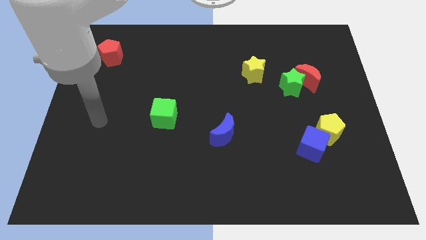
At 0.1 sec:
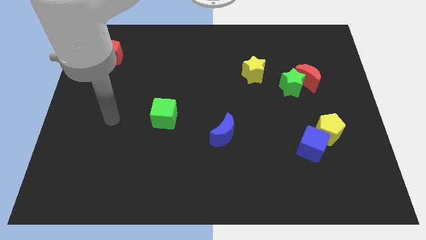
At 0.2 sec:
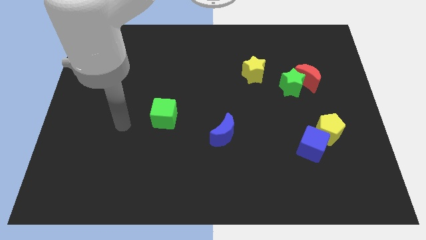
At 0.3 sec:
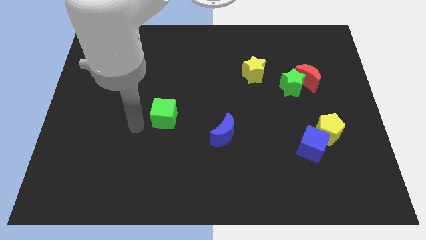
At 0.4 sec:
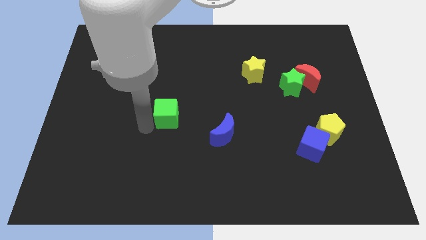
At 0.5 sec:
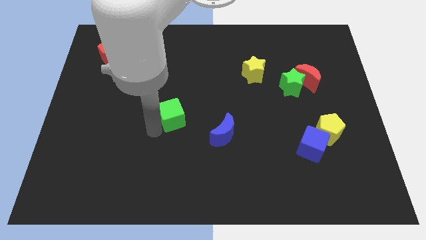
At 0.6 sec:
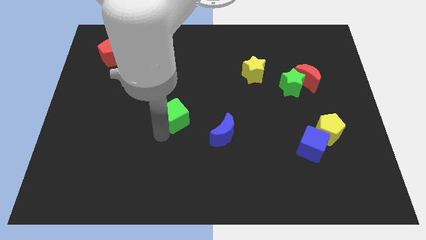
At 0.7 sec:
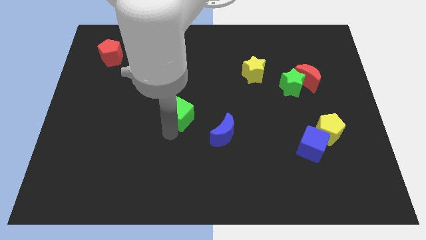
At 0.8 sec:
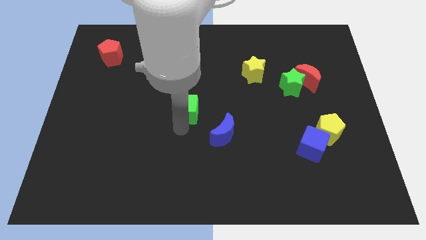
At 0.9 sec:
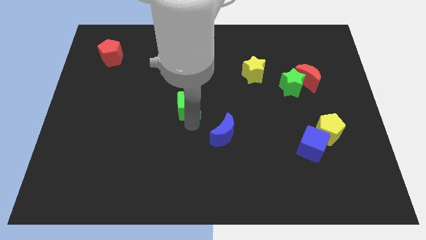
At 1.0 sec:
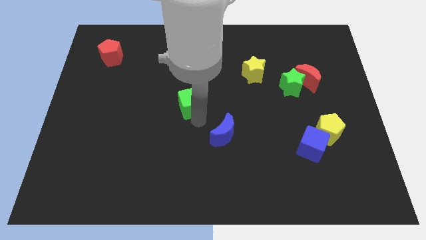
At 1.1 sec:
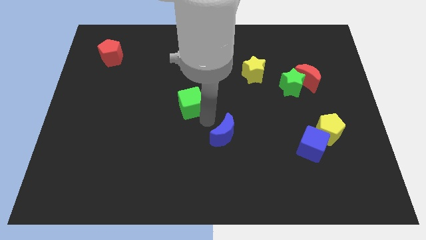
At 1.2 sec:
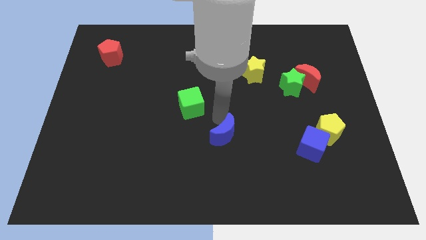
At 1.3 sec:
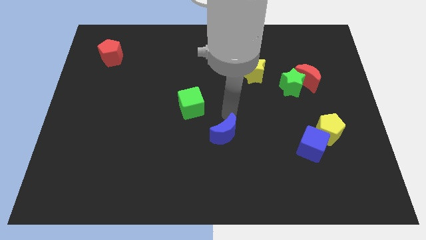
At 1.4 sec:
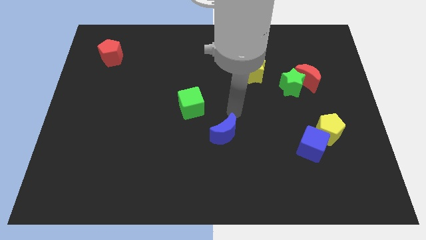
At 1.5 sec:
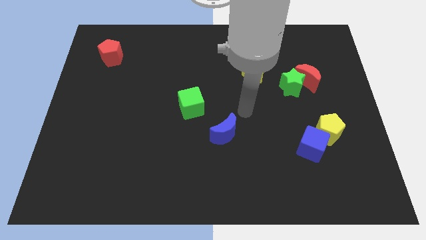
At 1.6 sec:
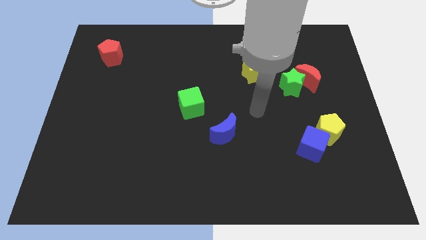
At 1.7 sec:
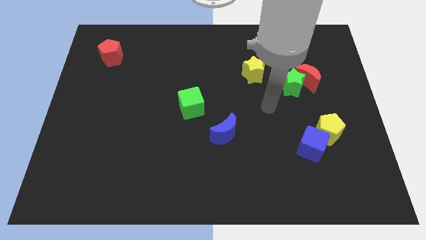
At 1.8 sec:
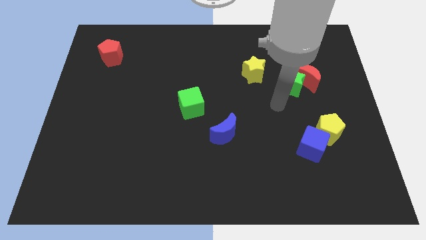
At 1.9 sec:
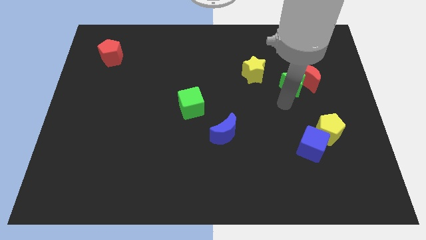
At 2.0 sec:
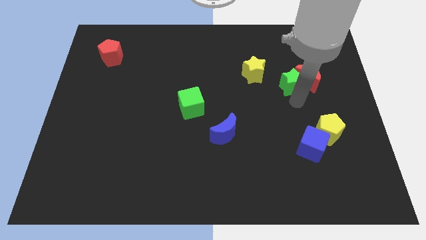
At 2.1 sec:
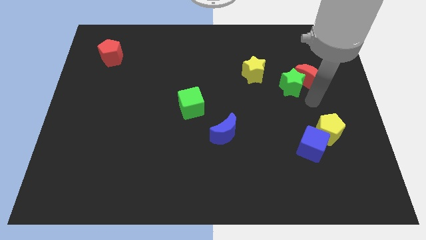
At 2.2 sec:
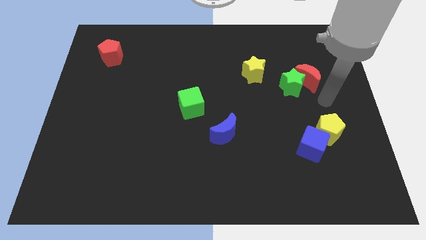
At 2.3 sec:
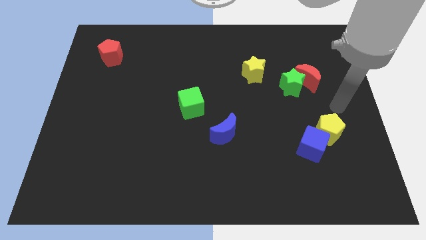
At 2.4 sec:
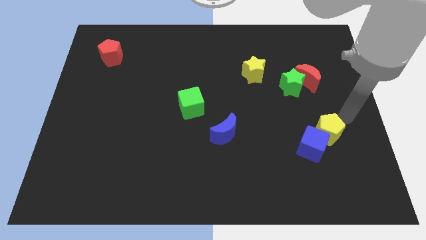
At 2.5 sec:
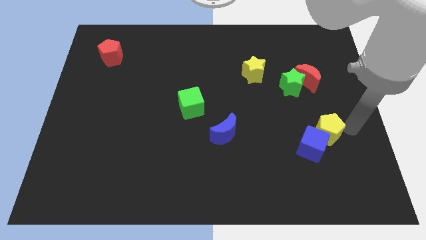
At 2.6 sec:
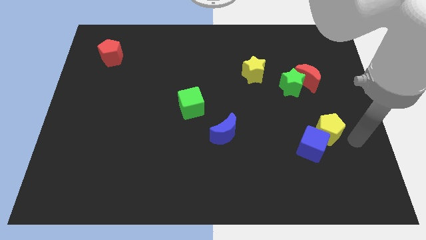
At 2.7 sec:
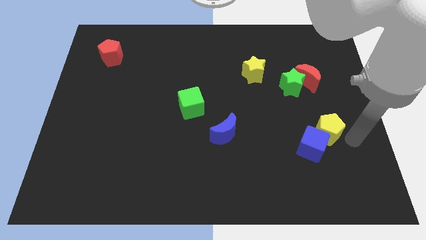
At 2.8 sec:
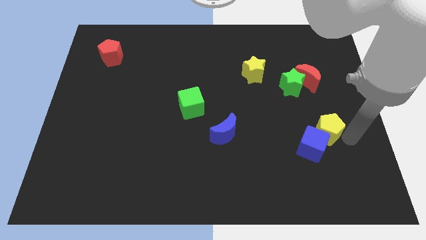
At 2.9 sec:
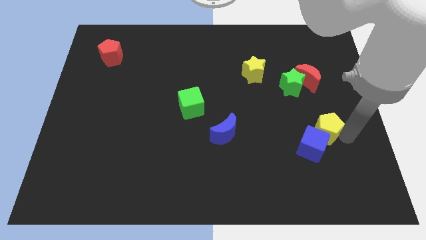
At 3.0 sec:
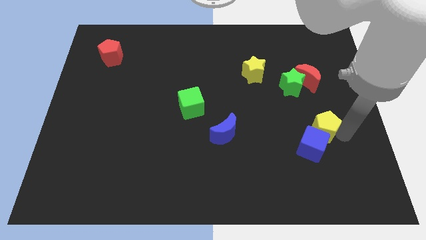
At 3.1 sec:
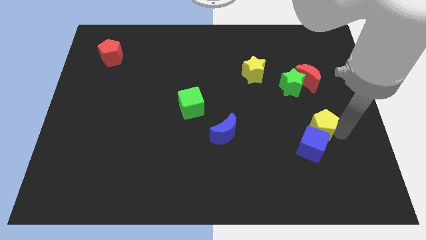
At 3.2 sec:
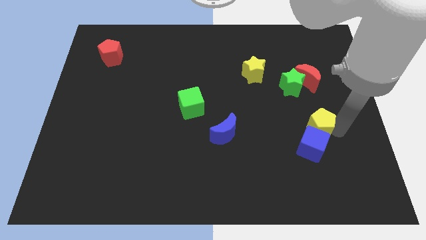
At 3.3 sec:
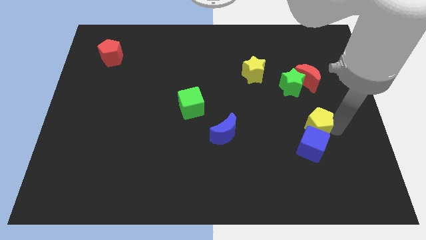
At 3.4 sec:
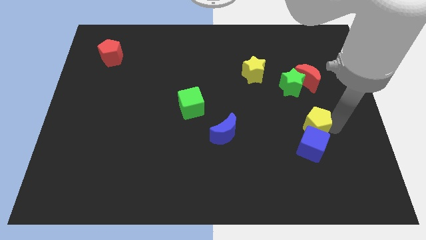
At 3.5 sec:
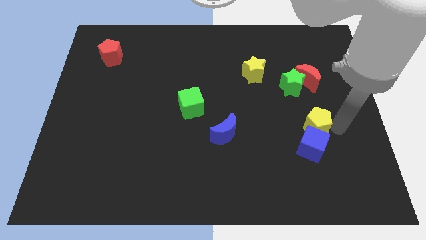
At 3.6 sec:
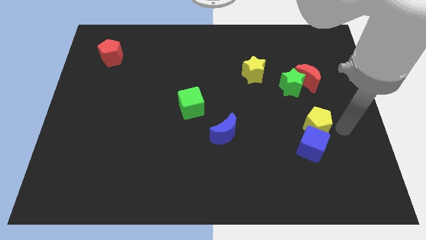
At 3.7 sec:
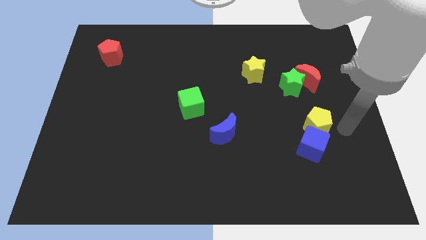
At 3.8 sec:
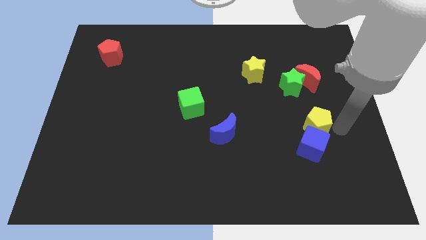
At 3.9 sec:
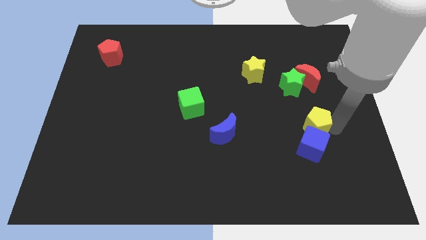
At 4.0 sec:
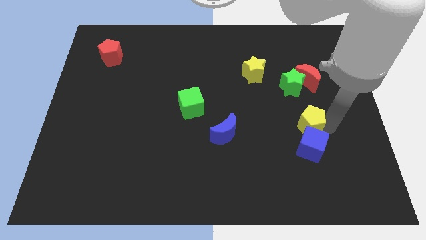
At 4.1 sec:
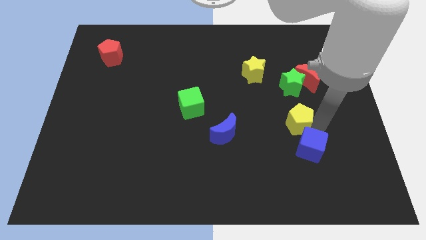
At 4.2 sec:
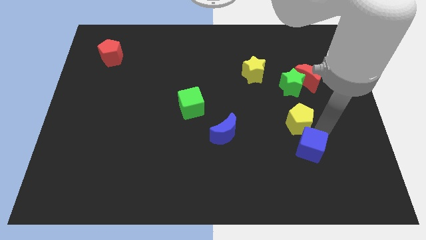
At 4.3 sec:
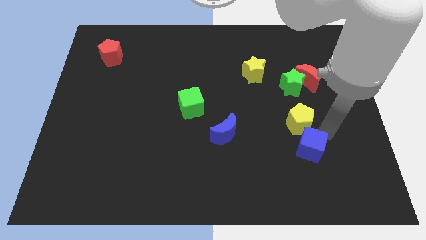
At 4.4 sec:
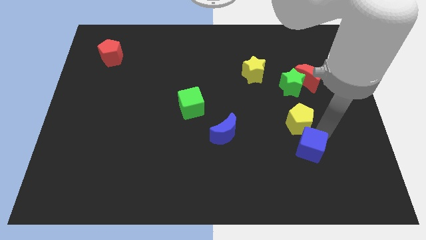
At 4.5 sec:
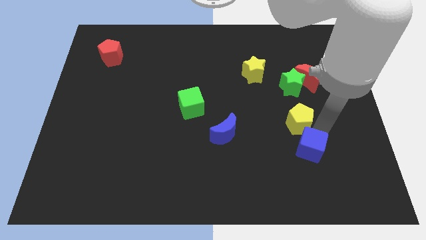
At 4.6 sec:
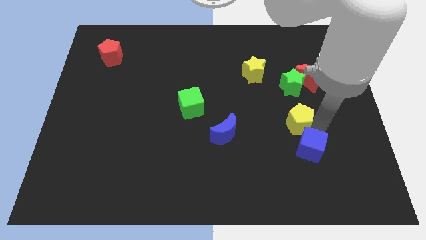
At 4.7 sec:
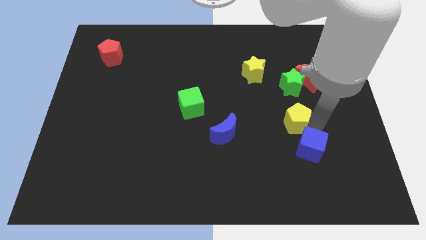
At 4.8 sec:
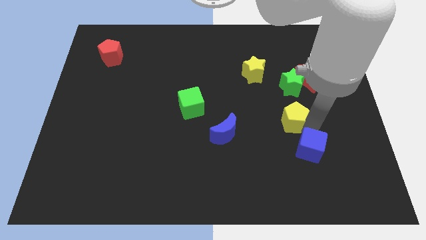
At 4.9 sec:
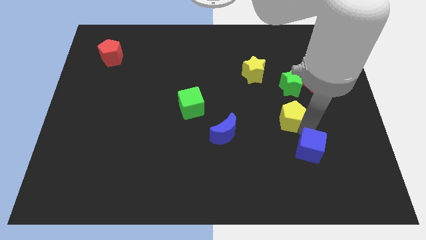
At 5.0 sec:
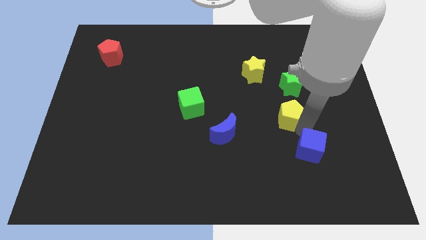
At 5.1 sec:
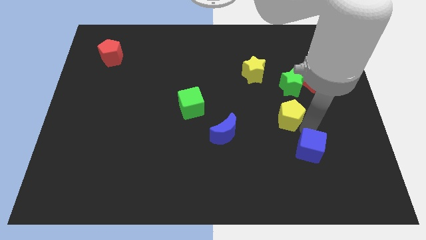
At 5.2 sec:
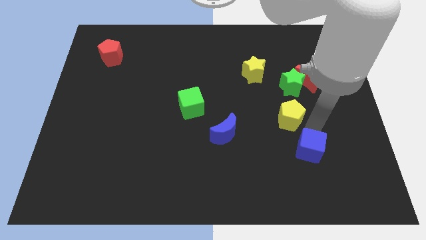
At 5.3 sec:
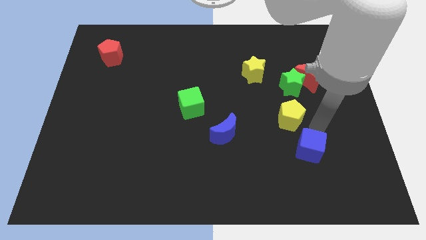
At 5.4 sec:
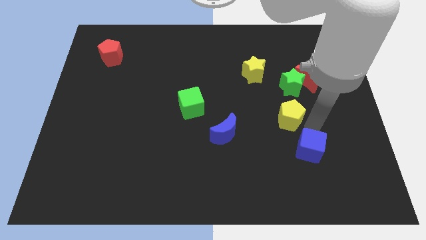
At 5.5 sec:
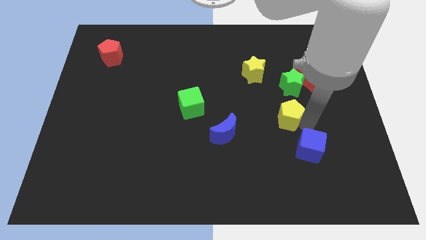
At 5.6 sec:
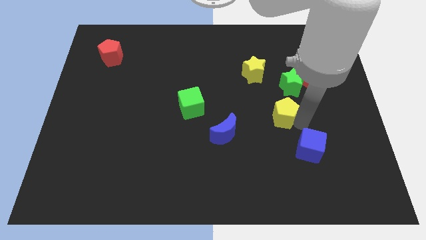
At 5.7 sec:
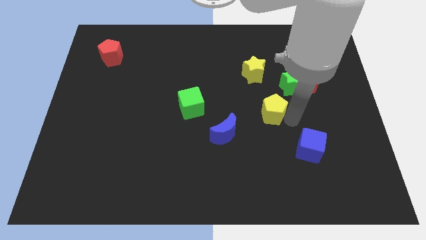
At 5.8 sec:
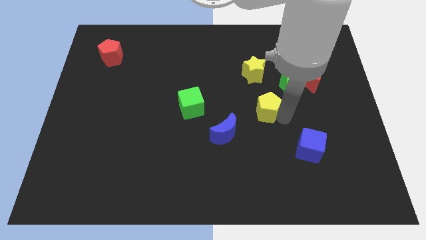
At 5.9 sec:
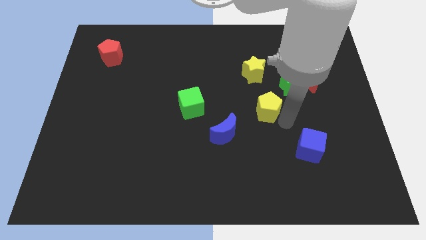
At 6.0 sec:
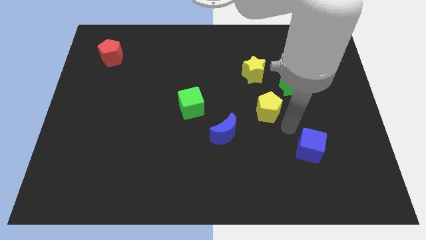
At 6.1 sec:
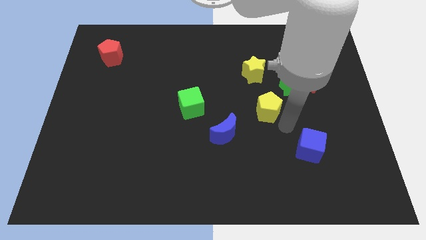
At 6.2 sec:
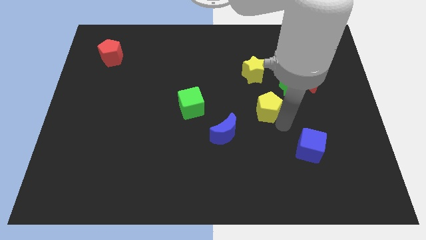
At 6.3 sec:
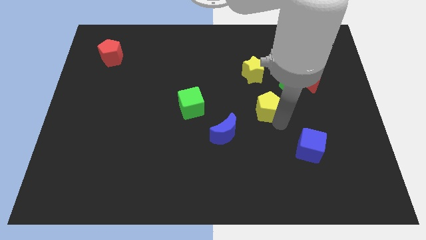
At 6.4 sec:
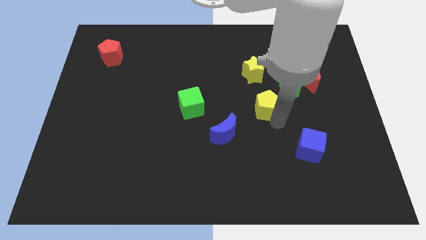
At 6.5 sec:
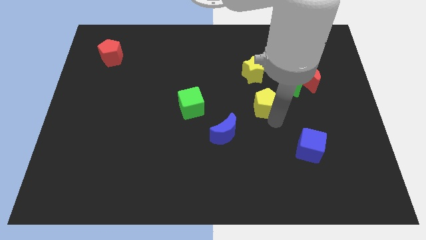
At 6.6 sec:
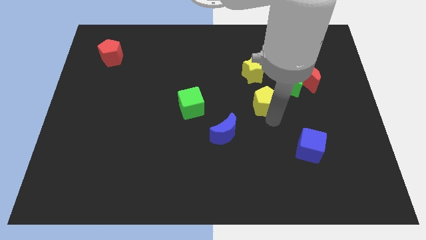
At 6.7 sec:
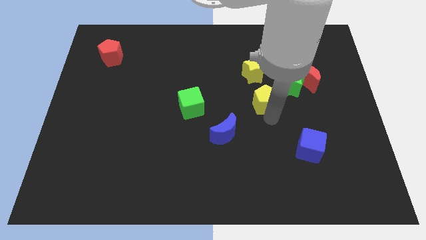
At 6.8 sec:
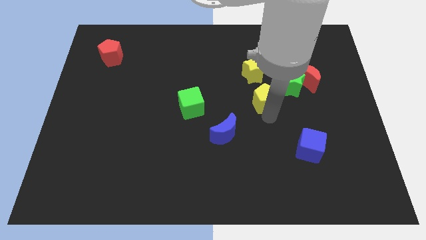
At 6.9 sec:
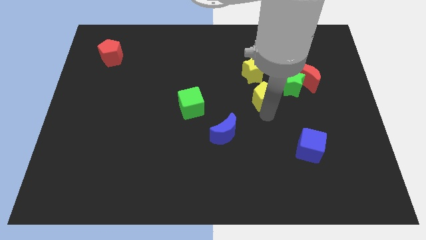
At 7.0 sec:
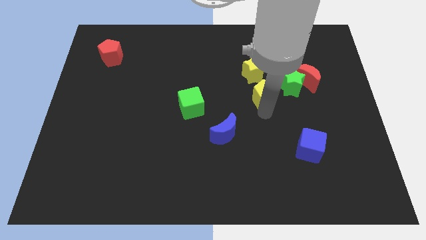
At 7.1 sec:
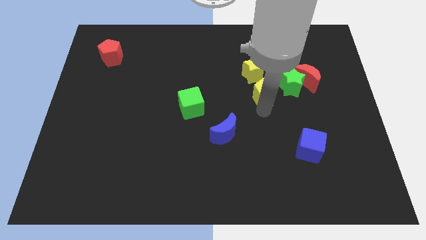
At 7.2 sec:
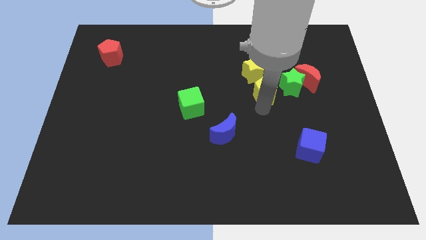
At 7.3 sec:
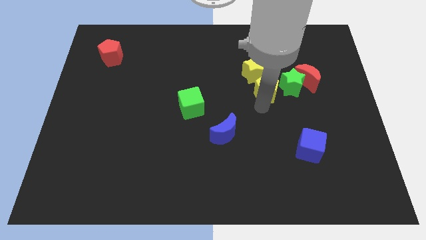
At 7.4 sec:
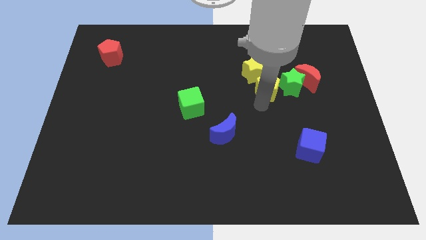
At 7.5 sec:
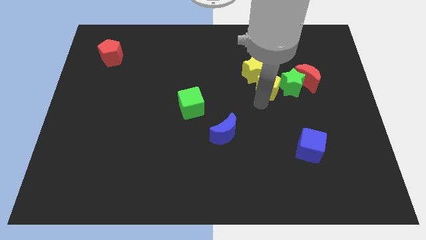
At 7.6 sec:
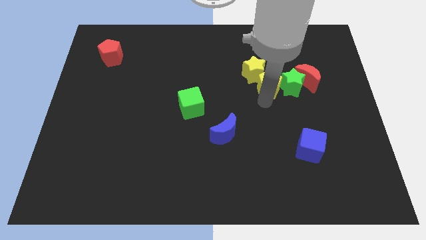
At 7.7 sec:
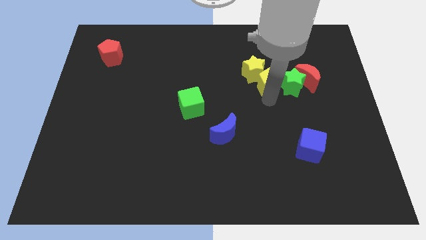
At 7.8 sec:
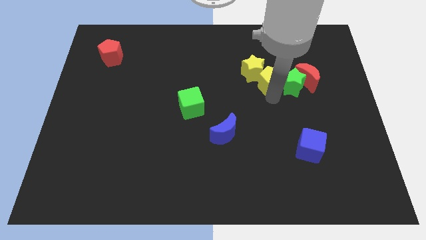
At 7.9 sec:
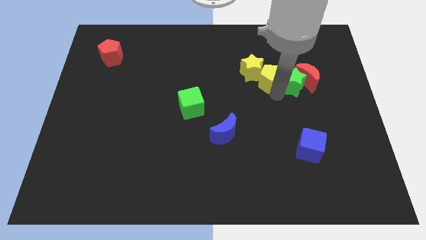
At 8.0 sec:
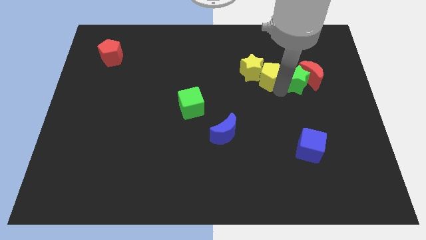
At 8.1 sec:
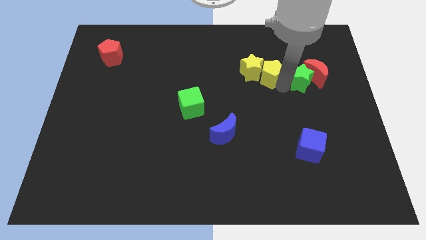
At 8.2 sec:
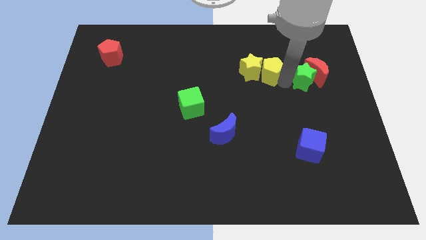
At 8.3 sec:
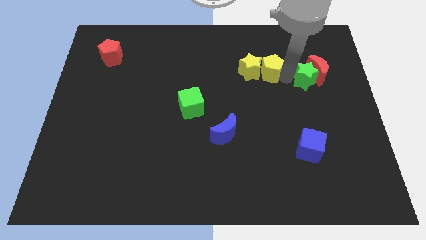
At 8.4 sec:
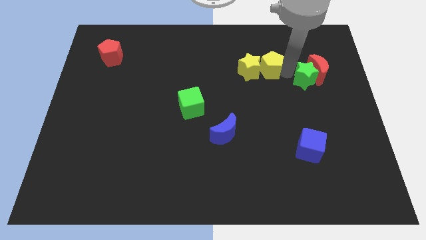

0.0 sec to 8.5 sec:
slide the yellow pentagon diagonally upwards and to the left

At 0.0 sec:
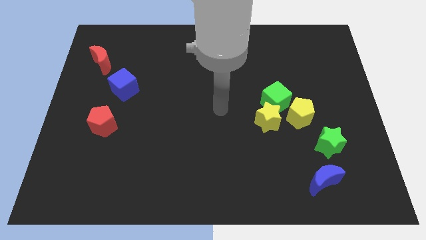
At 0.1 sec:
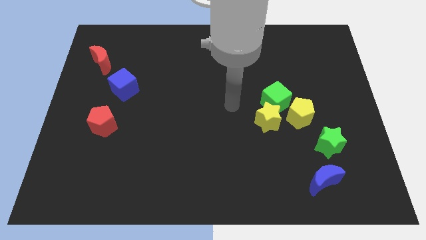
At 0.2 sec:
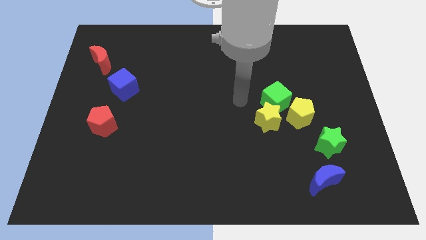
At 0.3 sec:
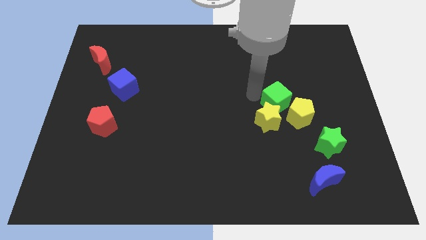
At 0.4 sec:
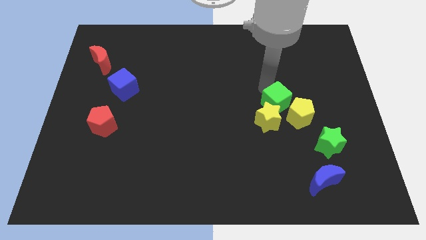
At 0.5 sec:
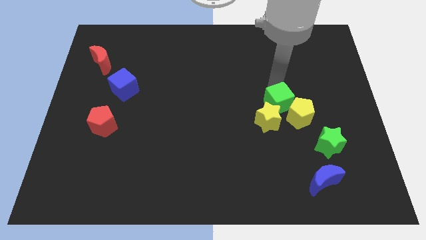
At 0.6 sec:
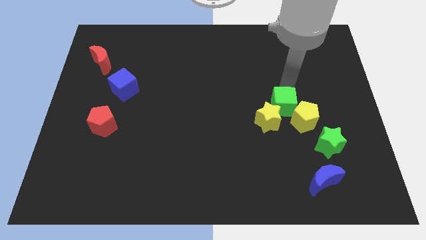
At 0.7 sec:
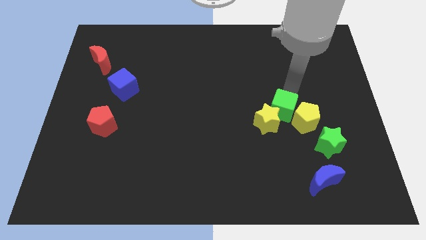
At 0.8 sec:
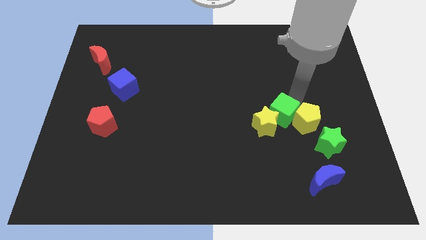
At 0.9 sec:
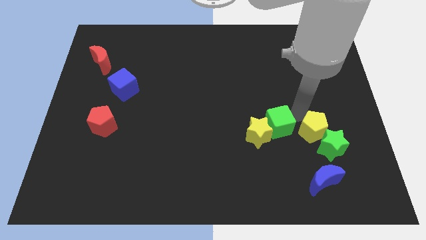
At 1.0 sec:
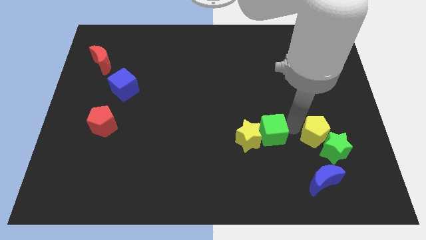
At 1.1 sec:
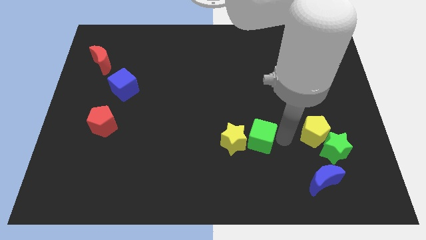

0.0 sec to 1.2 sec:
slightly push the yellow star to the left
